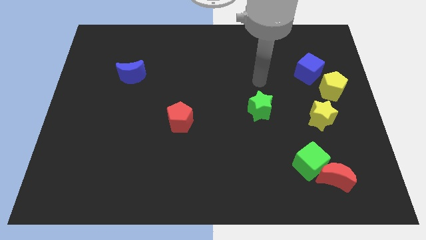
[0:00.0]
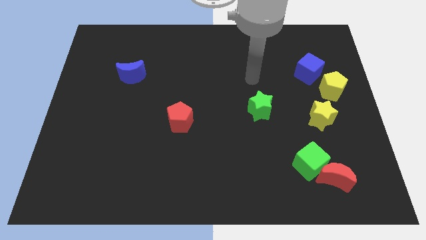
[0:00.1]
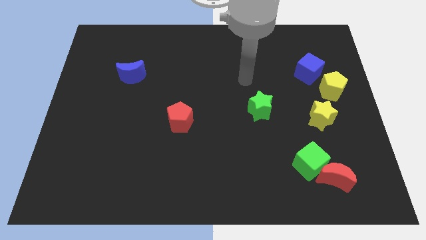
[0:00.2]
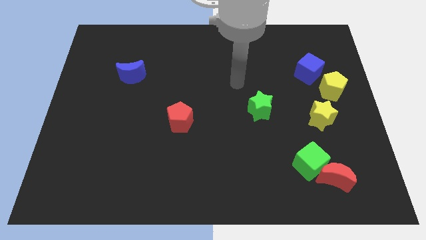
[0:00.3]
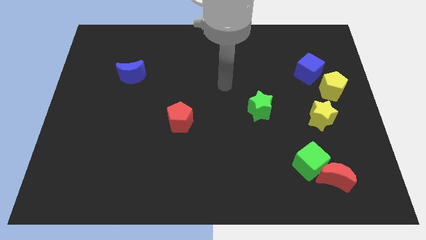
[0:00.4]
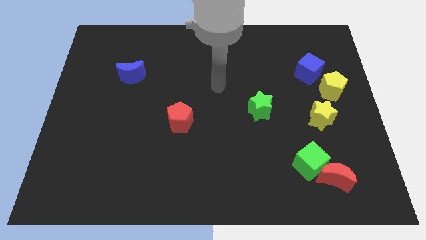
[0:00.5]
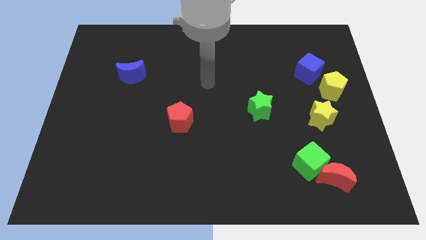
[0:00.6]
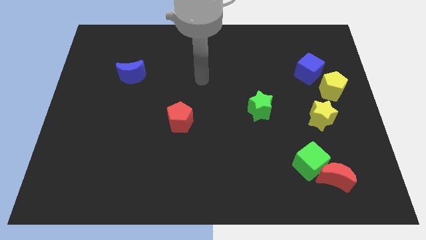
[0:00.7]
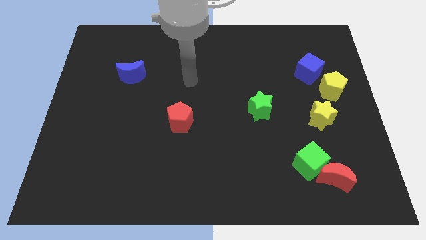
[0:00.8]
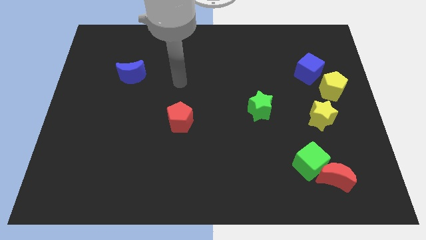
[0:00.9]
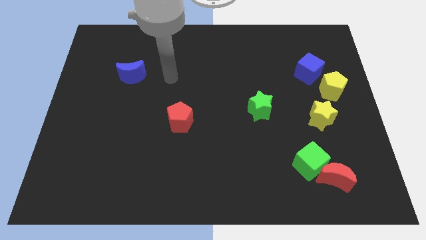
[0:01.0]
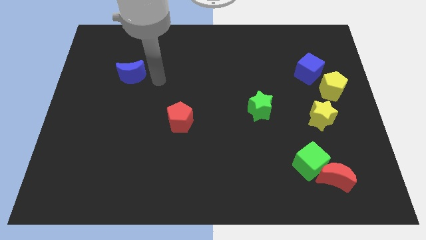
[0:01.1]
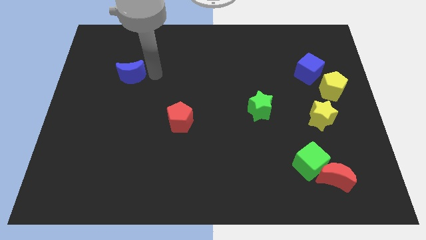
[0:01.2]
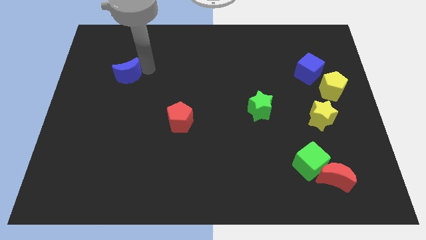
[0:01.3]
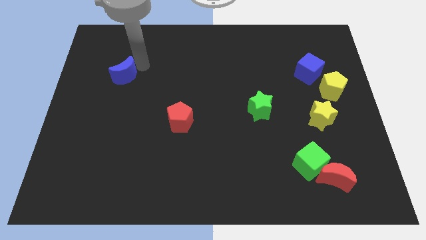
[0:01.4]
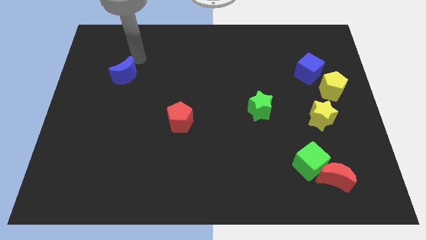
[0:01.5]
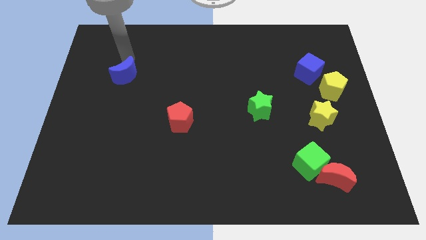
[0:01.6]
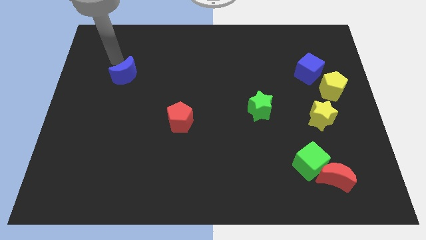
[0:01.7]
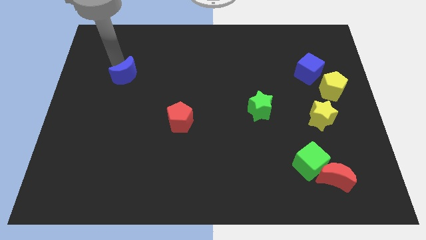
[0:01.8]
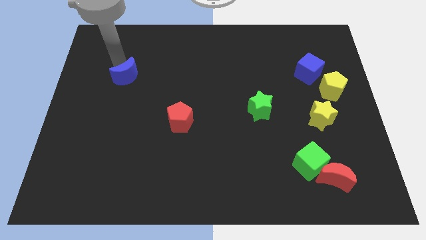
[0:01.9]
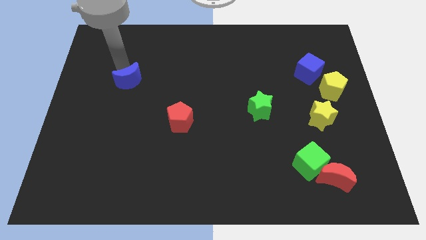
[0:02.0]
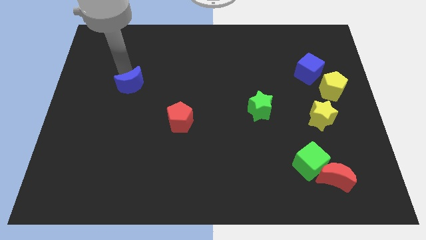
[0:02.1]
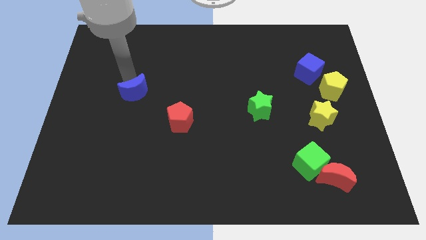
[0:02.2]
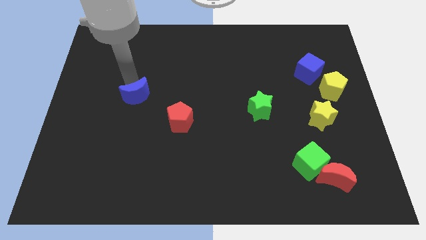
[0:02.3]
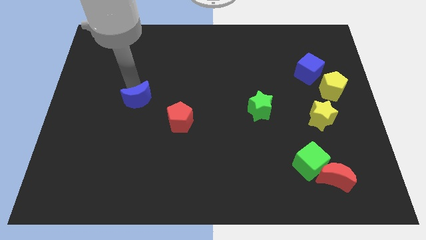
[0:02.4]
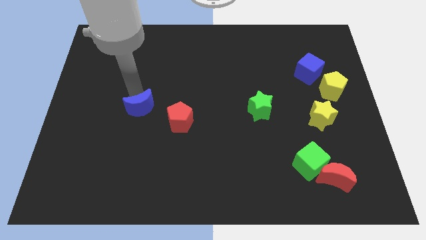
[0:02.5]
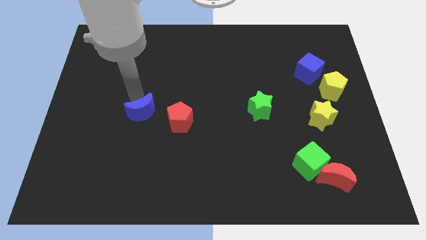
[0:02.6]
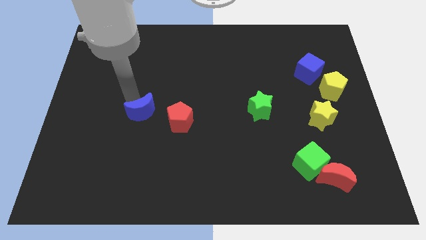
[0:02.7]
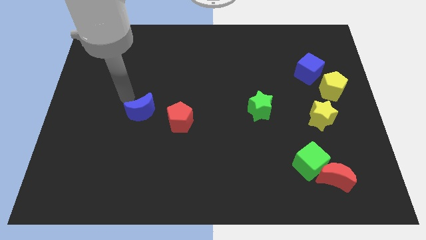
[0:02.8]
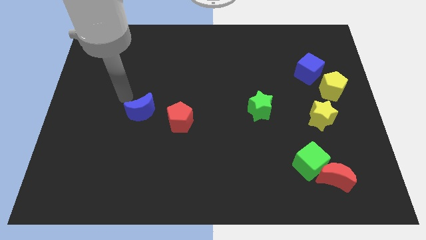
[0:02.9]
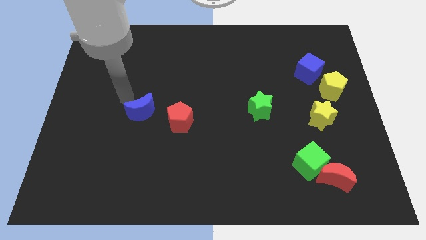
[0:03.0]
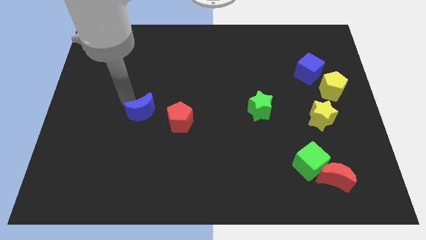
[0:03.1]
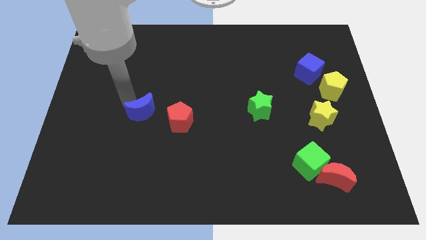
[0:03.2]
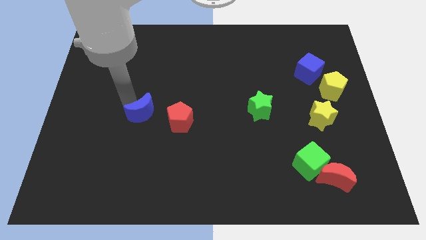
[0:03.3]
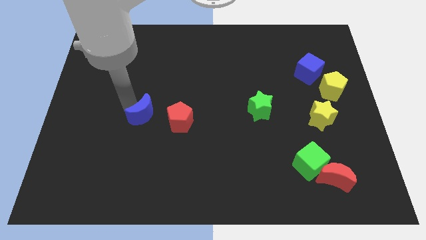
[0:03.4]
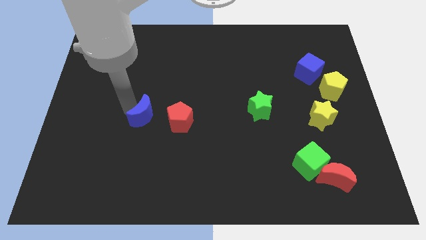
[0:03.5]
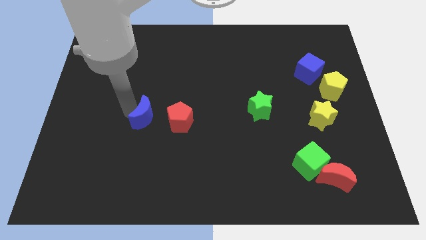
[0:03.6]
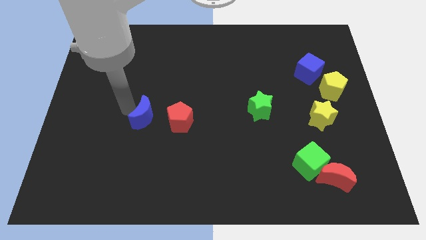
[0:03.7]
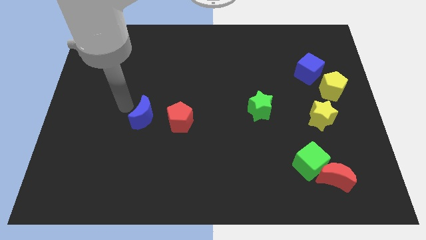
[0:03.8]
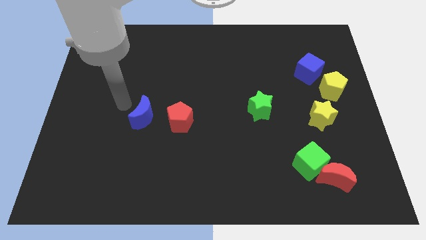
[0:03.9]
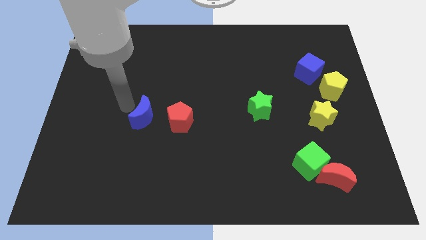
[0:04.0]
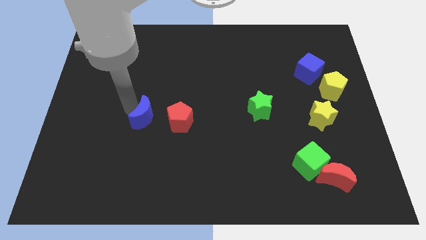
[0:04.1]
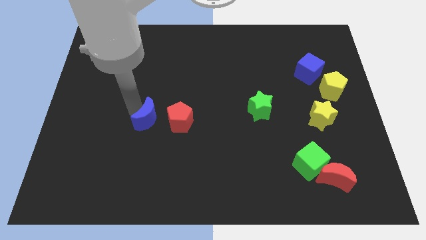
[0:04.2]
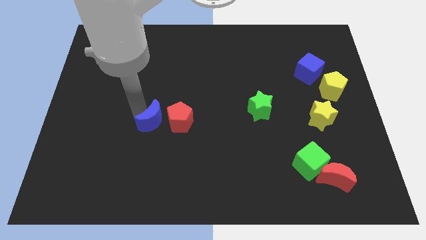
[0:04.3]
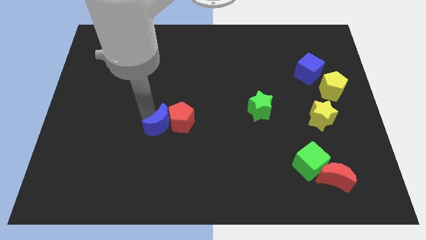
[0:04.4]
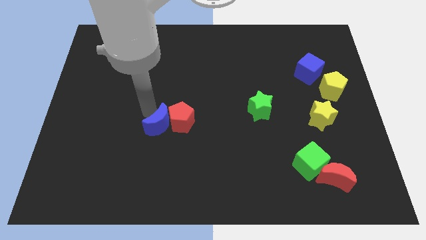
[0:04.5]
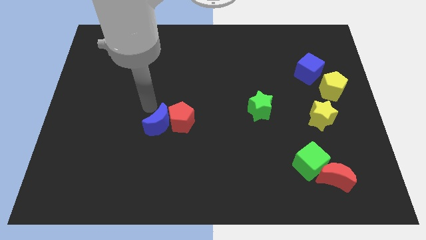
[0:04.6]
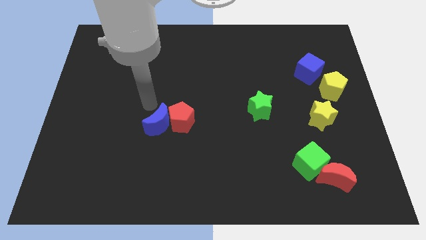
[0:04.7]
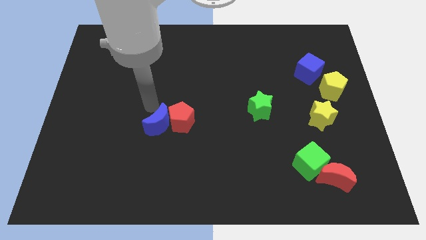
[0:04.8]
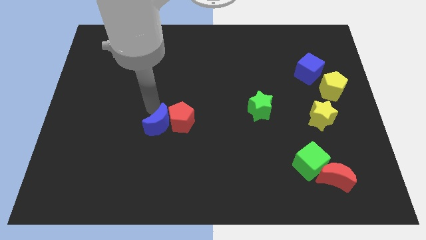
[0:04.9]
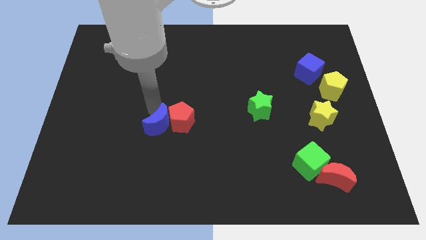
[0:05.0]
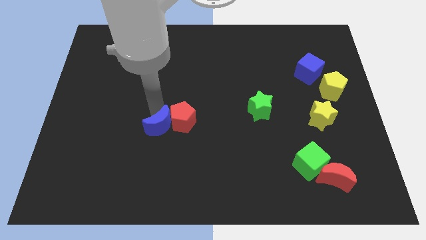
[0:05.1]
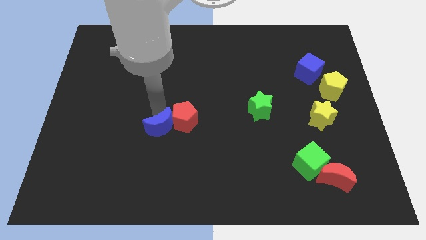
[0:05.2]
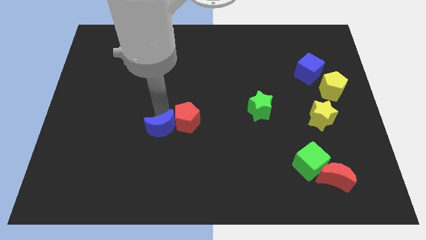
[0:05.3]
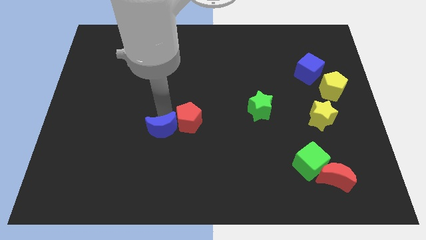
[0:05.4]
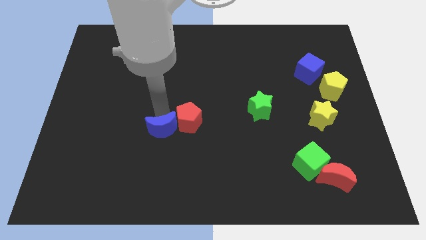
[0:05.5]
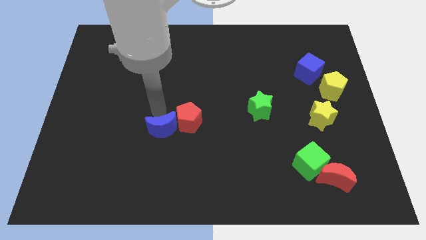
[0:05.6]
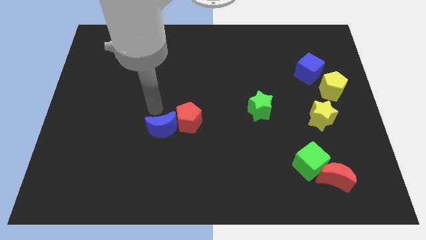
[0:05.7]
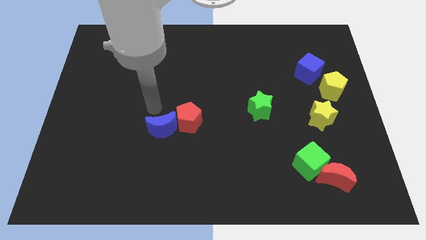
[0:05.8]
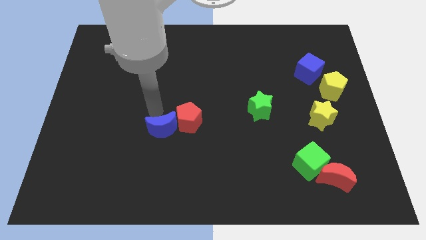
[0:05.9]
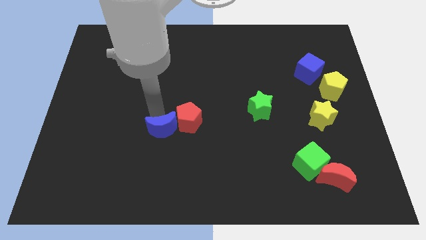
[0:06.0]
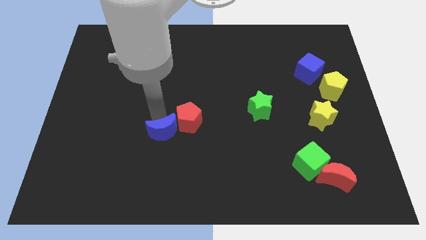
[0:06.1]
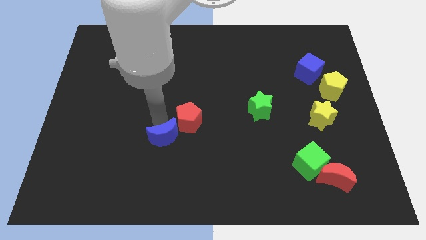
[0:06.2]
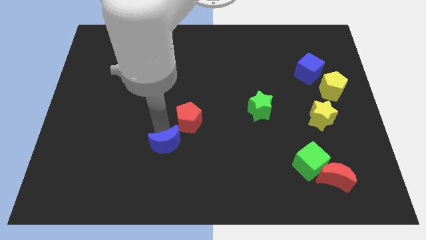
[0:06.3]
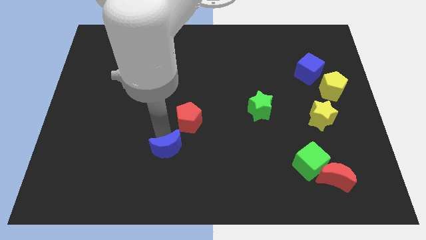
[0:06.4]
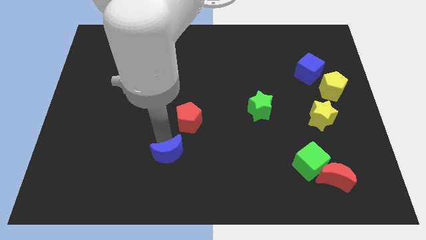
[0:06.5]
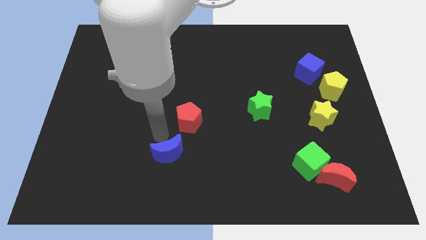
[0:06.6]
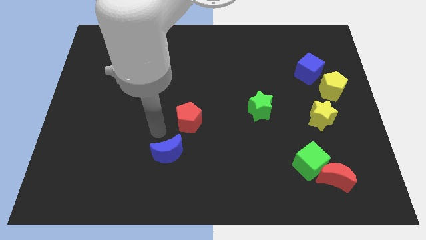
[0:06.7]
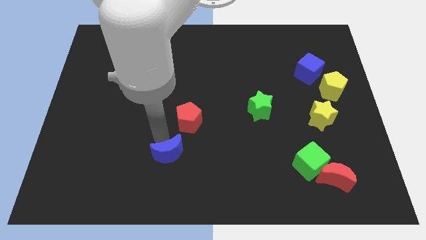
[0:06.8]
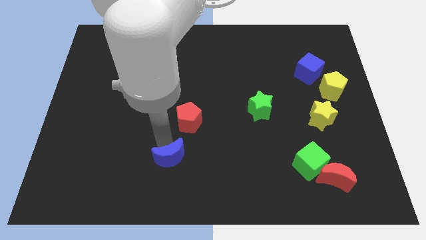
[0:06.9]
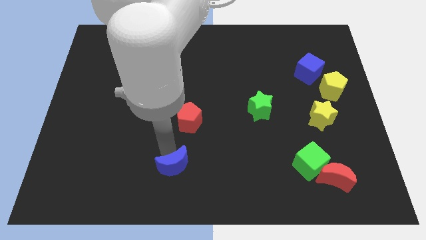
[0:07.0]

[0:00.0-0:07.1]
slide the blue moon to the bottom
